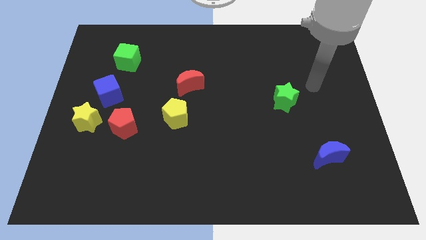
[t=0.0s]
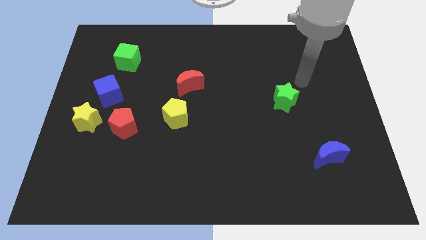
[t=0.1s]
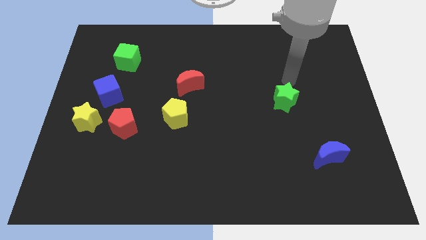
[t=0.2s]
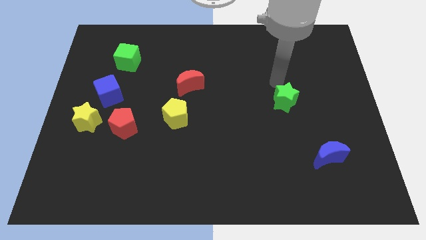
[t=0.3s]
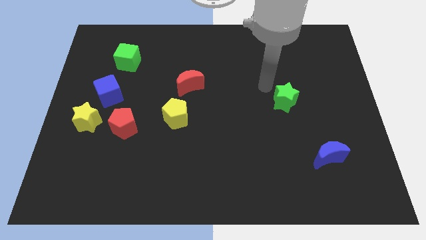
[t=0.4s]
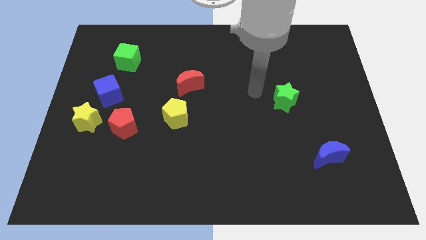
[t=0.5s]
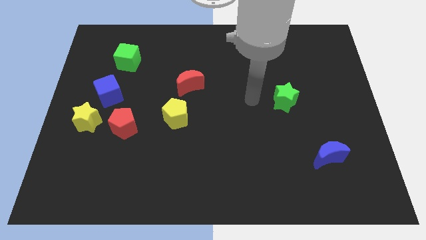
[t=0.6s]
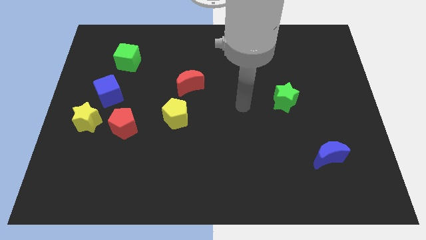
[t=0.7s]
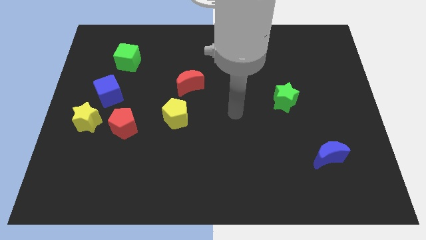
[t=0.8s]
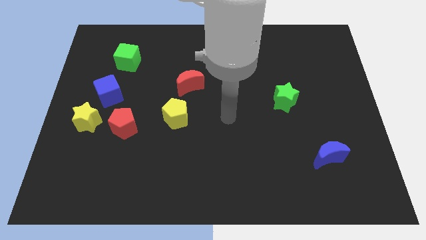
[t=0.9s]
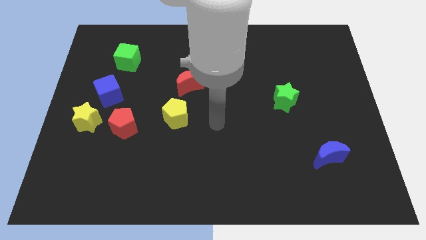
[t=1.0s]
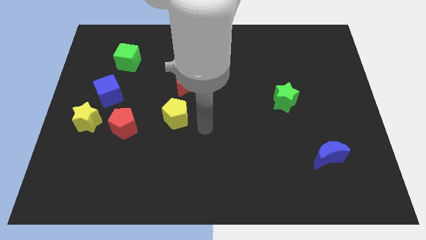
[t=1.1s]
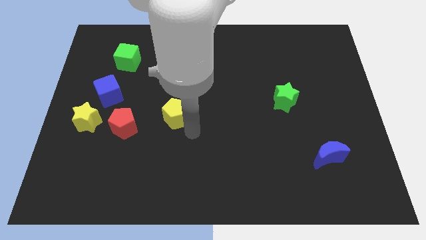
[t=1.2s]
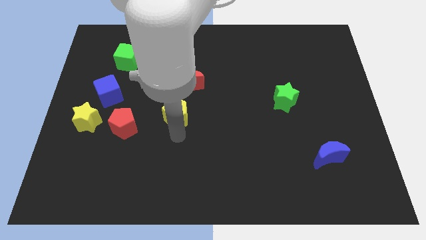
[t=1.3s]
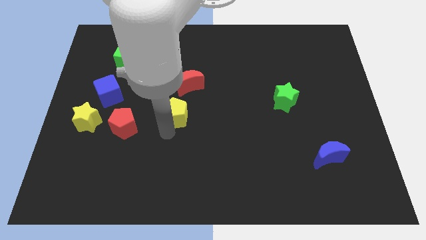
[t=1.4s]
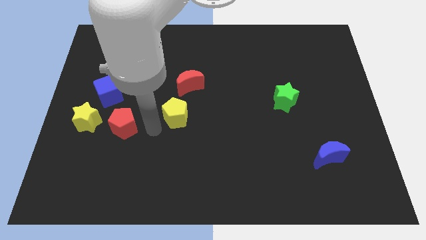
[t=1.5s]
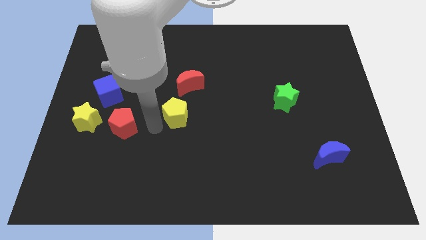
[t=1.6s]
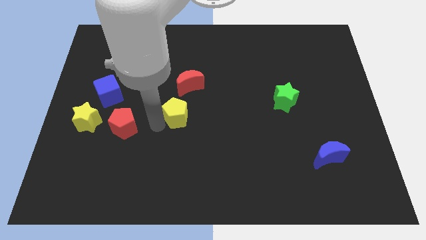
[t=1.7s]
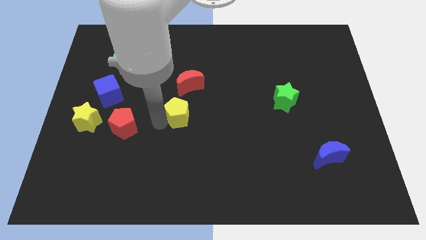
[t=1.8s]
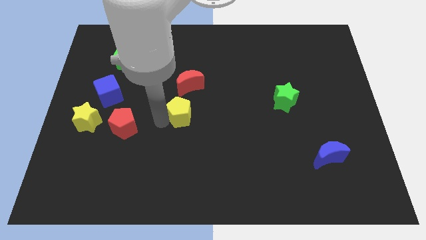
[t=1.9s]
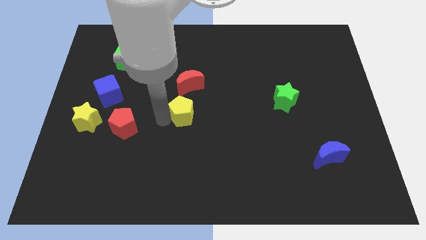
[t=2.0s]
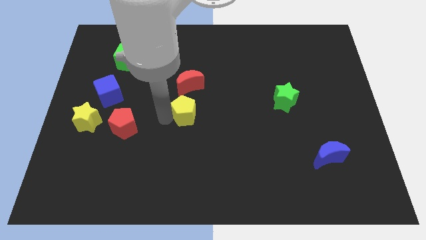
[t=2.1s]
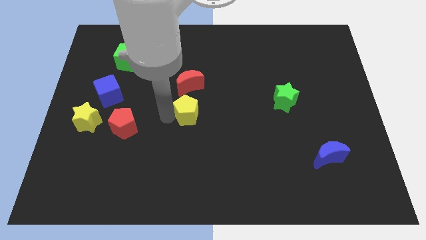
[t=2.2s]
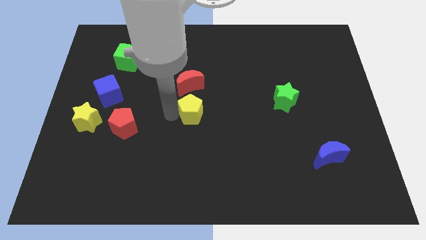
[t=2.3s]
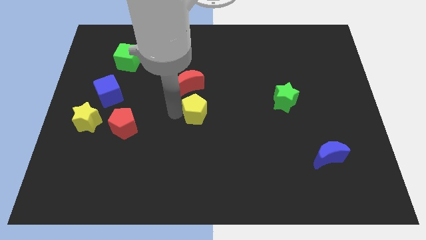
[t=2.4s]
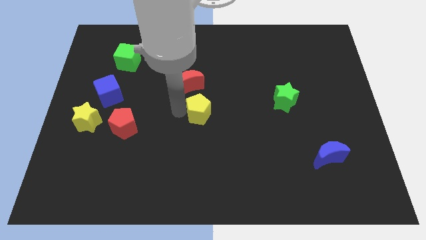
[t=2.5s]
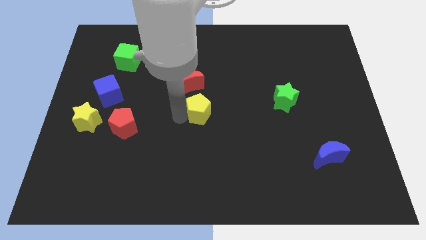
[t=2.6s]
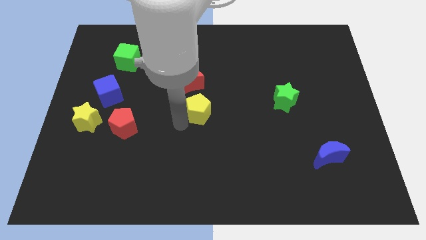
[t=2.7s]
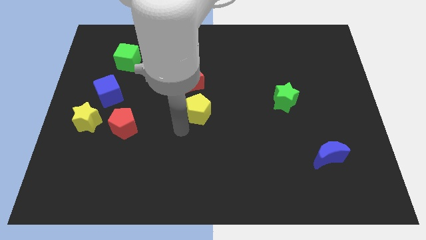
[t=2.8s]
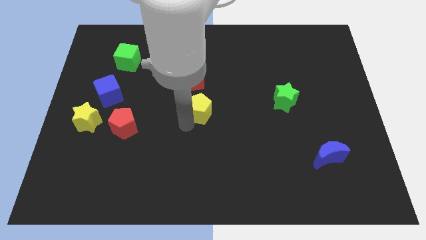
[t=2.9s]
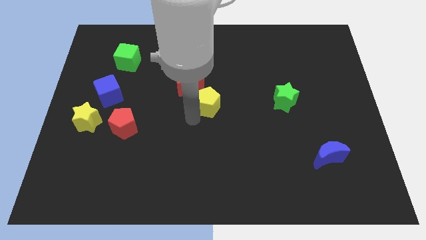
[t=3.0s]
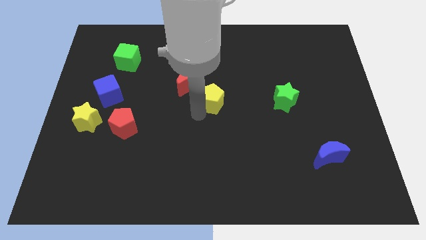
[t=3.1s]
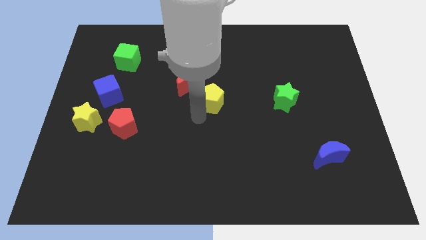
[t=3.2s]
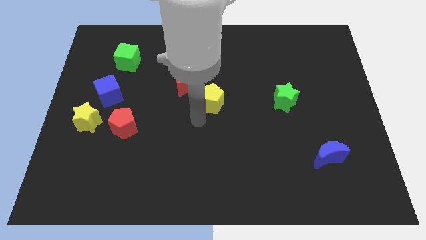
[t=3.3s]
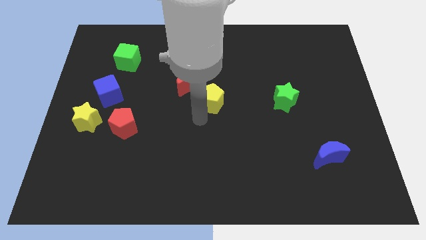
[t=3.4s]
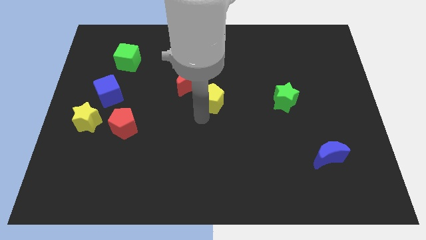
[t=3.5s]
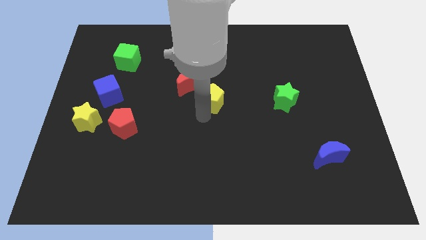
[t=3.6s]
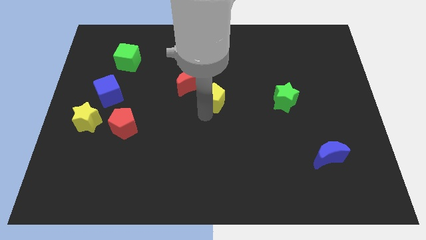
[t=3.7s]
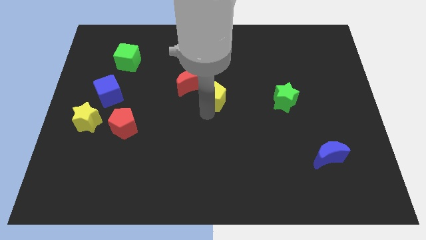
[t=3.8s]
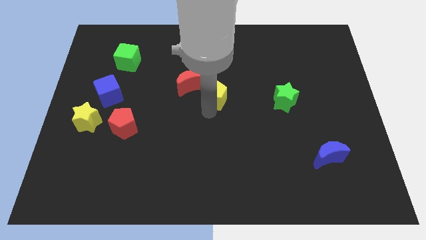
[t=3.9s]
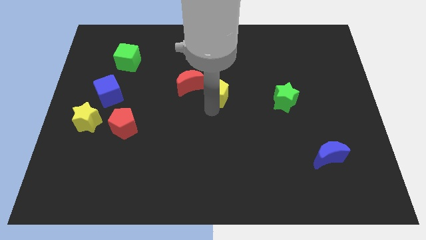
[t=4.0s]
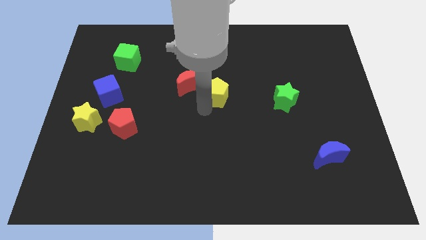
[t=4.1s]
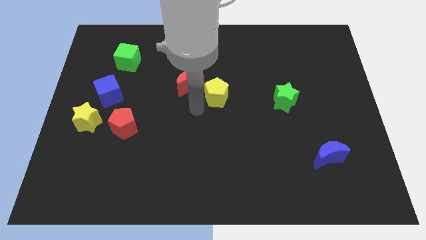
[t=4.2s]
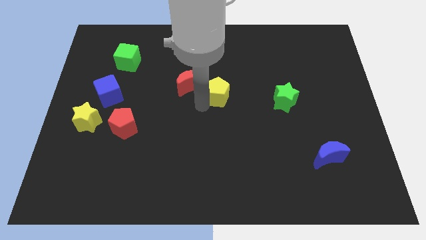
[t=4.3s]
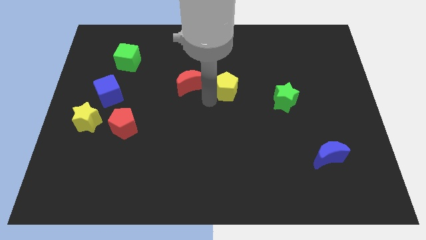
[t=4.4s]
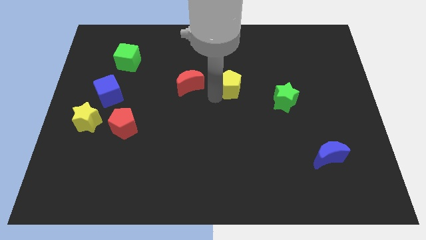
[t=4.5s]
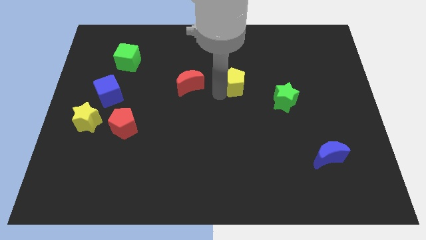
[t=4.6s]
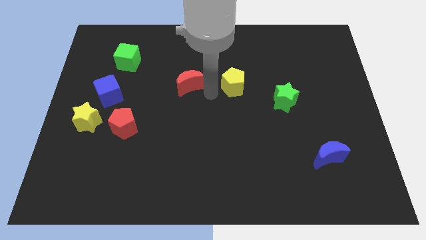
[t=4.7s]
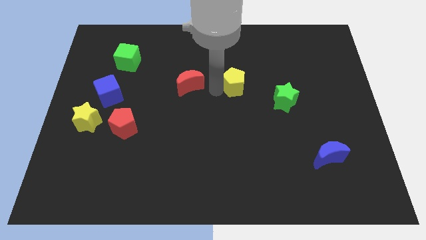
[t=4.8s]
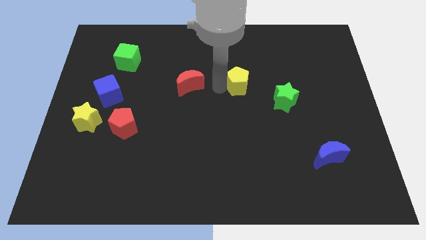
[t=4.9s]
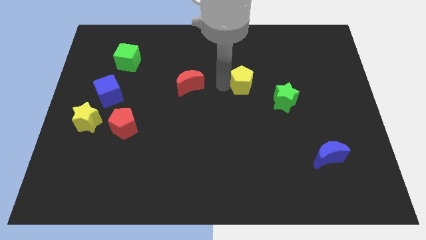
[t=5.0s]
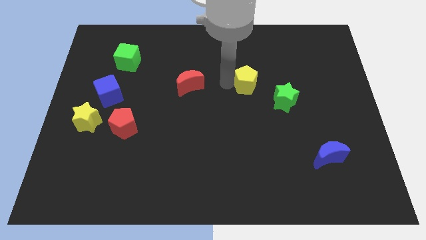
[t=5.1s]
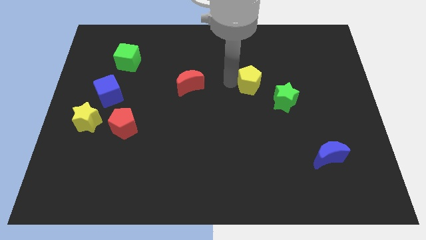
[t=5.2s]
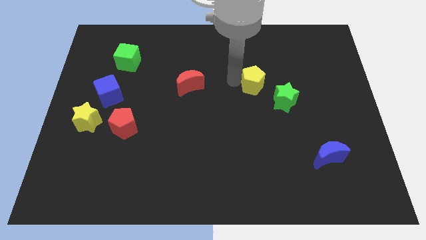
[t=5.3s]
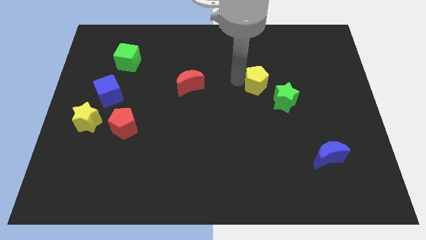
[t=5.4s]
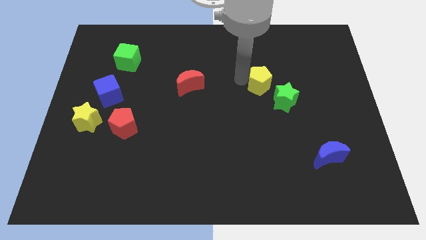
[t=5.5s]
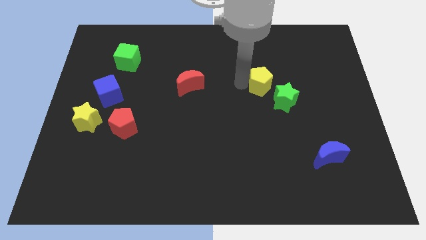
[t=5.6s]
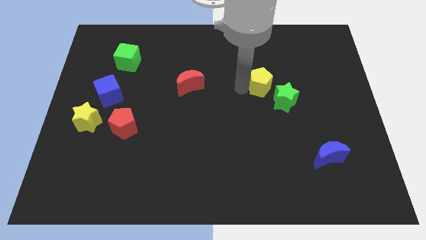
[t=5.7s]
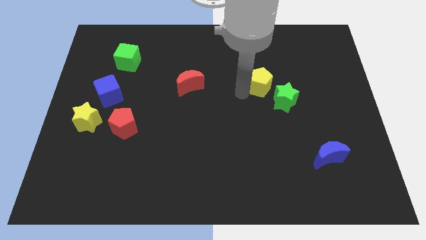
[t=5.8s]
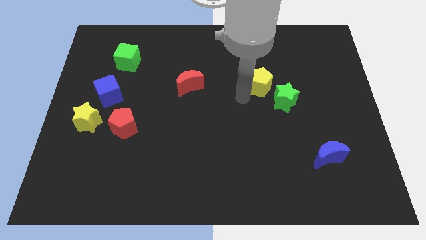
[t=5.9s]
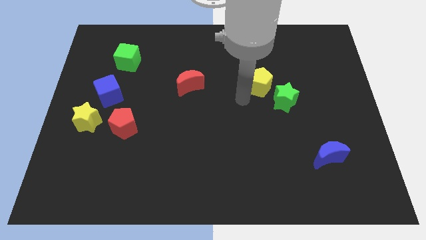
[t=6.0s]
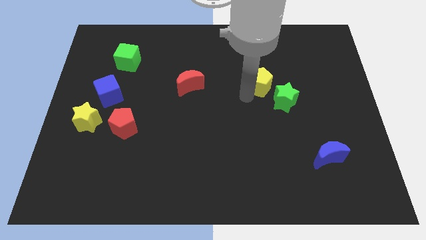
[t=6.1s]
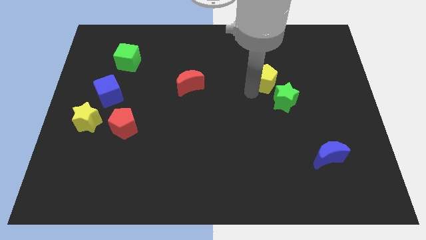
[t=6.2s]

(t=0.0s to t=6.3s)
slide the yellow pentagon above the green star

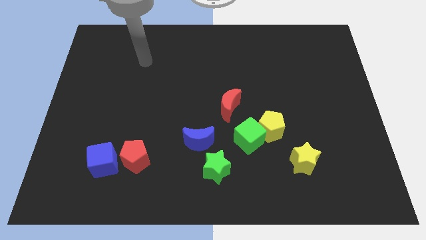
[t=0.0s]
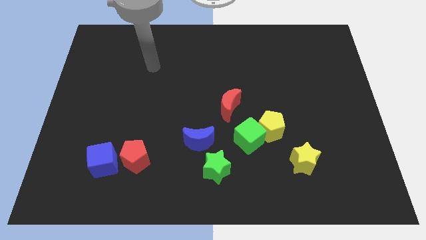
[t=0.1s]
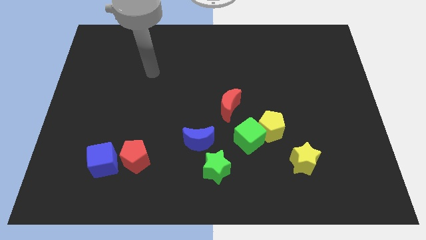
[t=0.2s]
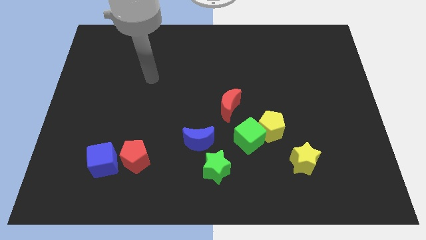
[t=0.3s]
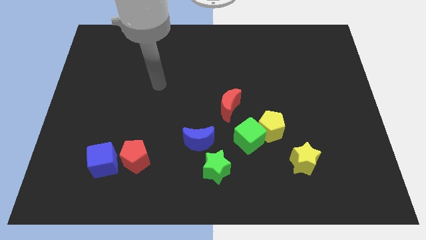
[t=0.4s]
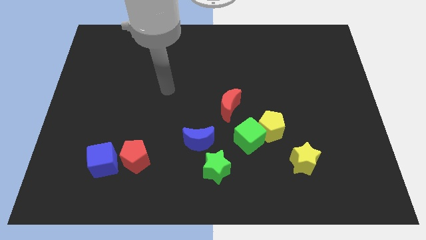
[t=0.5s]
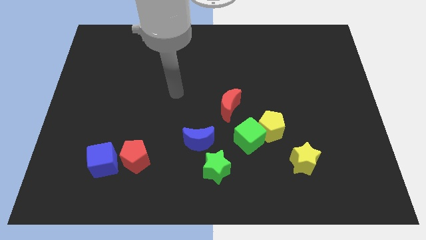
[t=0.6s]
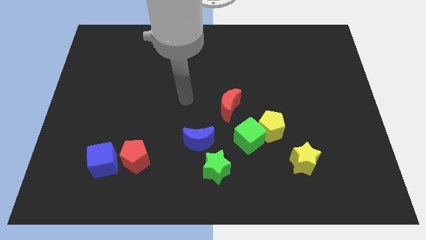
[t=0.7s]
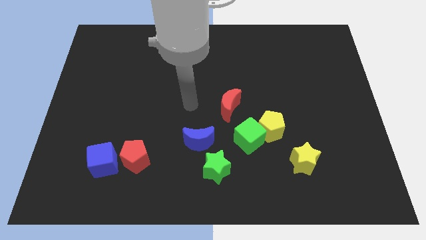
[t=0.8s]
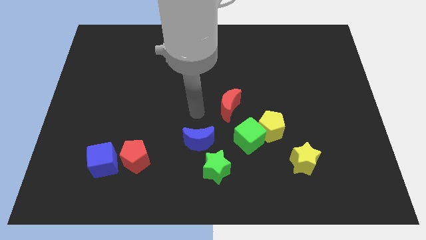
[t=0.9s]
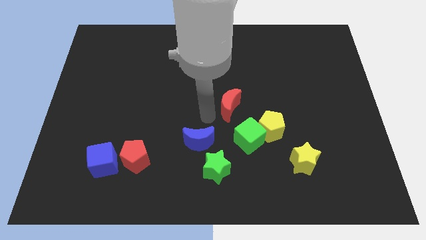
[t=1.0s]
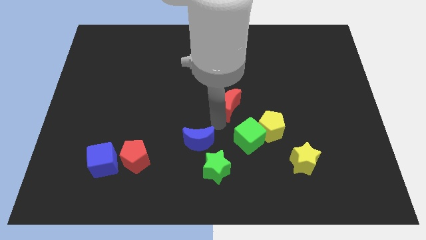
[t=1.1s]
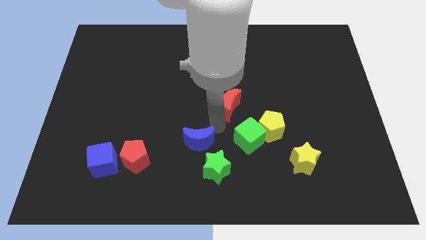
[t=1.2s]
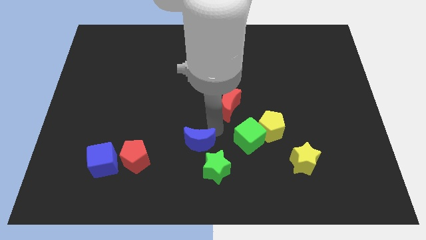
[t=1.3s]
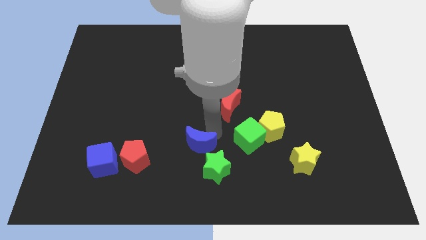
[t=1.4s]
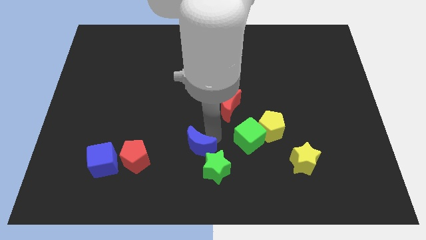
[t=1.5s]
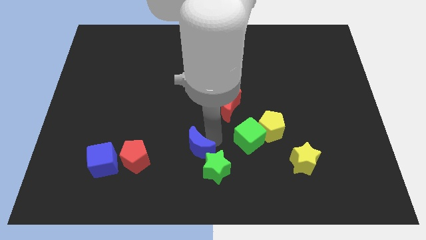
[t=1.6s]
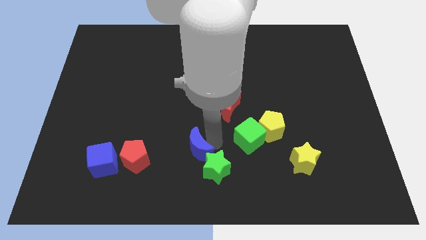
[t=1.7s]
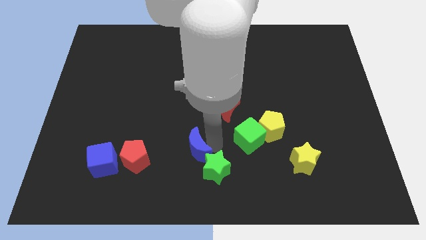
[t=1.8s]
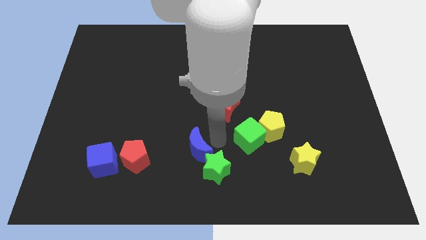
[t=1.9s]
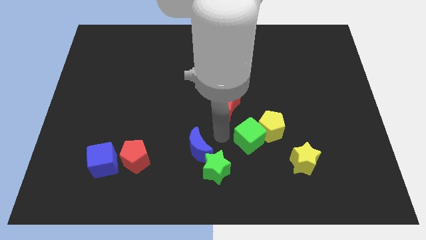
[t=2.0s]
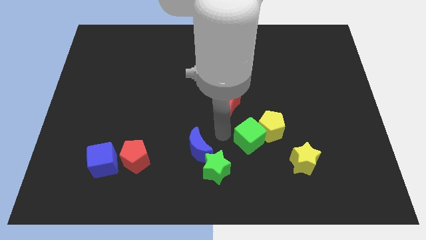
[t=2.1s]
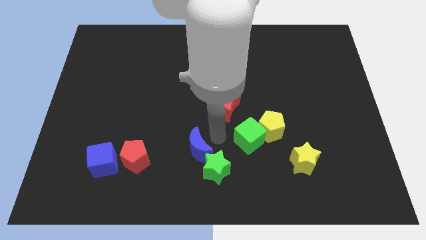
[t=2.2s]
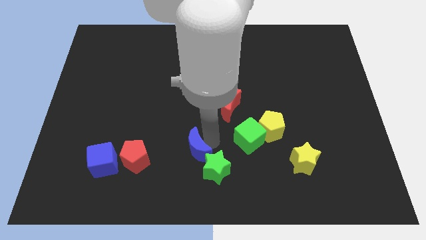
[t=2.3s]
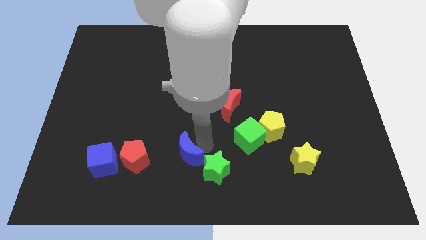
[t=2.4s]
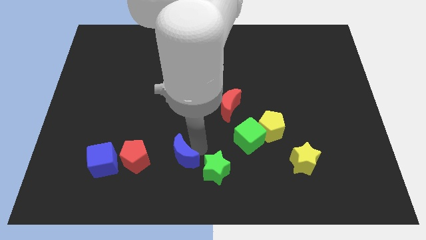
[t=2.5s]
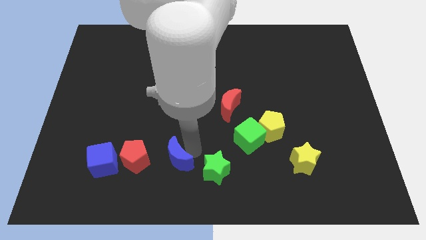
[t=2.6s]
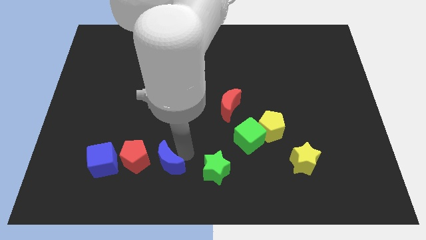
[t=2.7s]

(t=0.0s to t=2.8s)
move the blue moon diagonally down and to the right of the red pentagon
